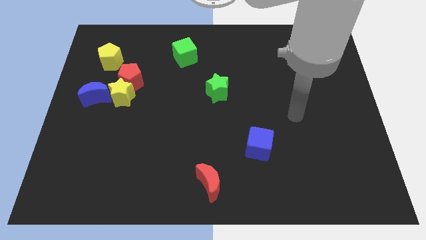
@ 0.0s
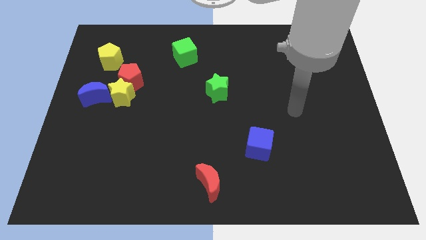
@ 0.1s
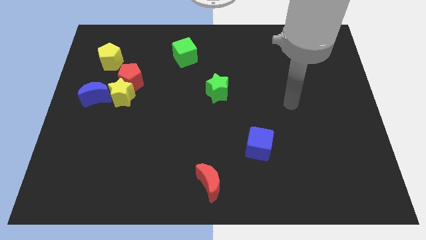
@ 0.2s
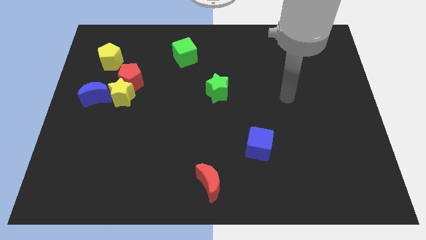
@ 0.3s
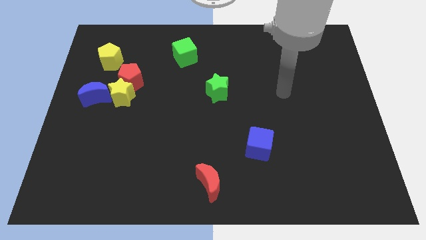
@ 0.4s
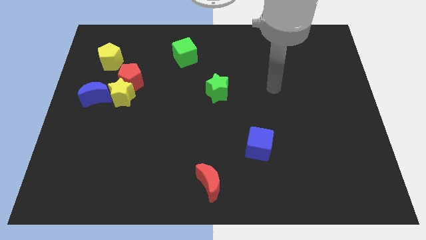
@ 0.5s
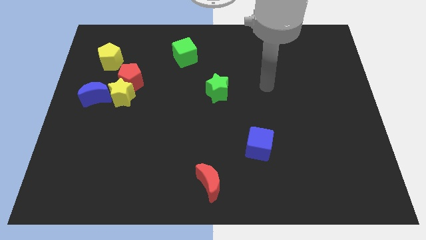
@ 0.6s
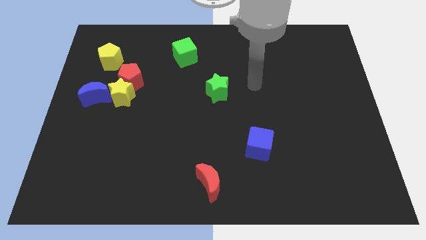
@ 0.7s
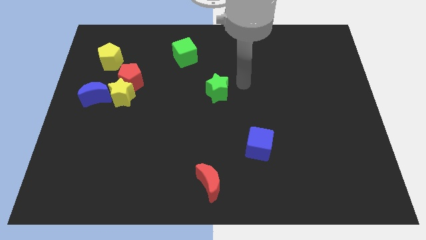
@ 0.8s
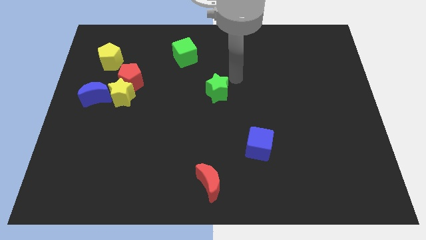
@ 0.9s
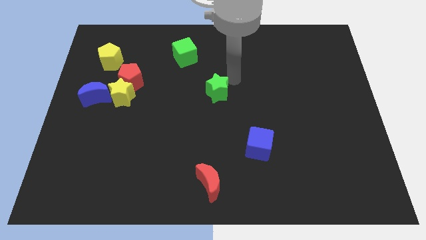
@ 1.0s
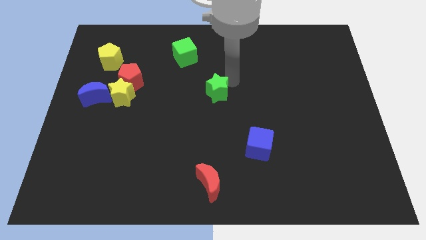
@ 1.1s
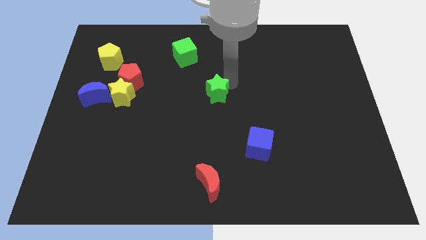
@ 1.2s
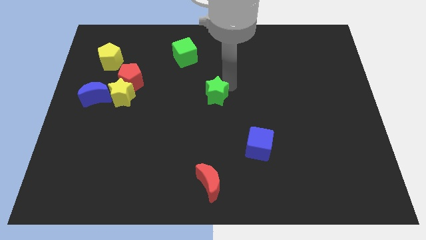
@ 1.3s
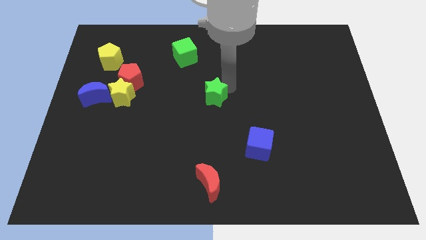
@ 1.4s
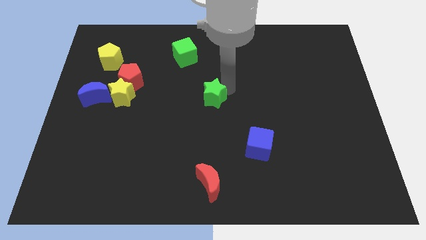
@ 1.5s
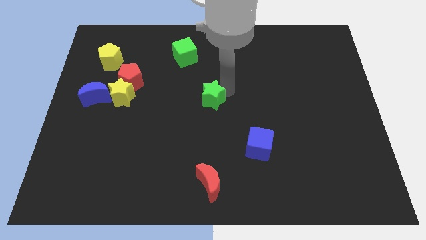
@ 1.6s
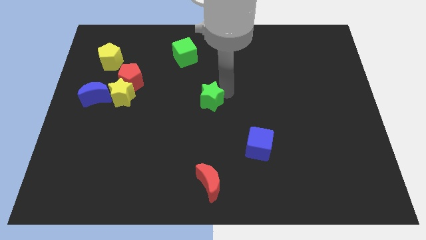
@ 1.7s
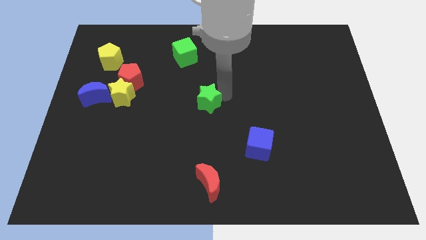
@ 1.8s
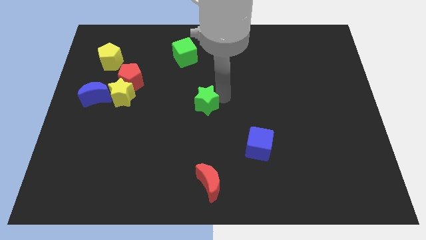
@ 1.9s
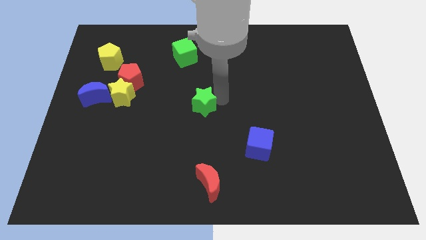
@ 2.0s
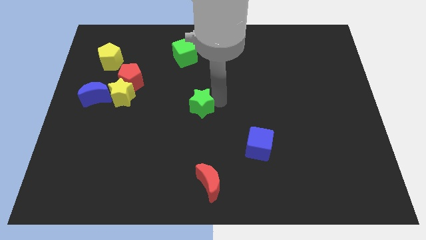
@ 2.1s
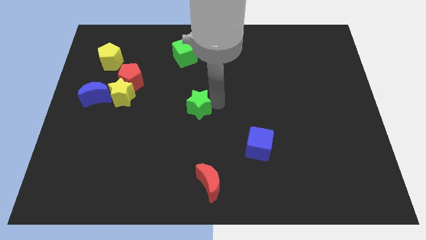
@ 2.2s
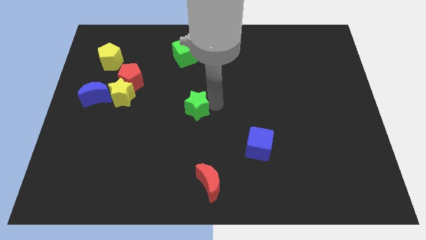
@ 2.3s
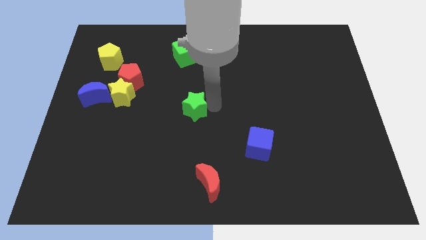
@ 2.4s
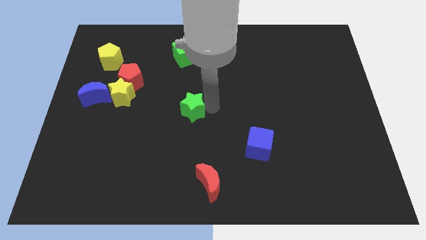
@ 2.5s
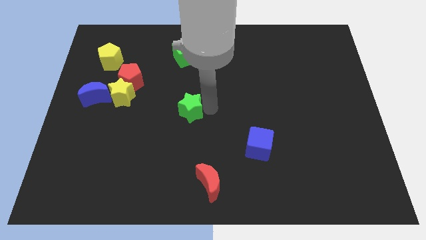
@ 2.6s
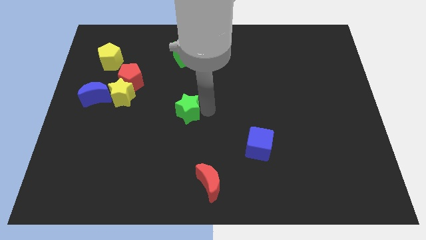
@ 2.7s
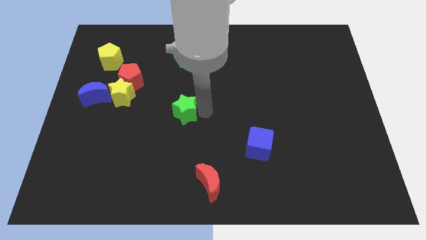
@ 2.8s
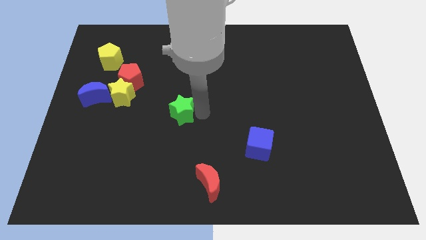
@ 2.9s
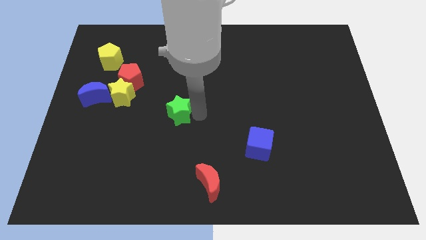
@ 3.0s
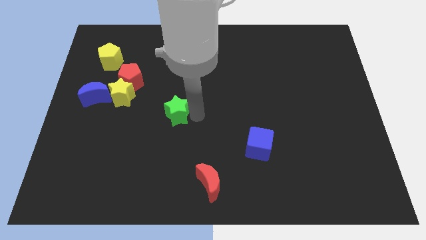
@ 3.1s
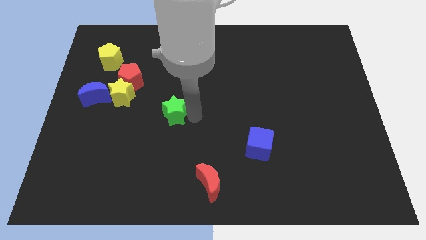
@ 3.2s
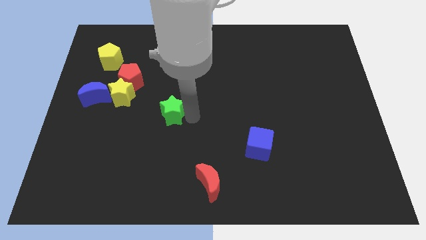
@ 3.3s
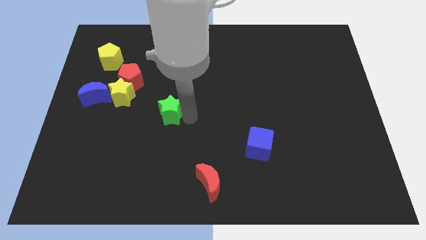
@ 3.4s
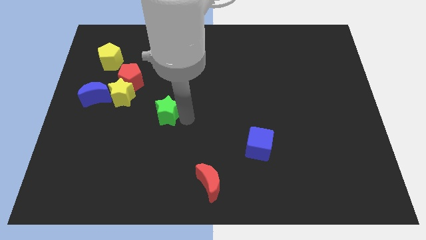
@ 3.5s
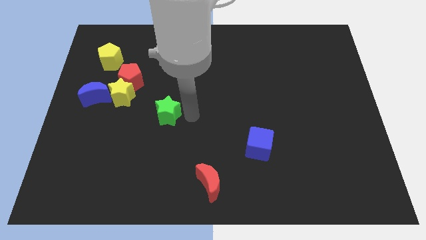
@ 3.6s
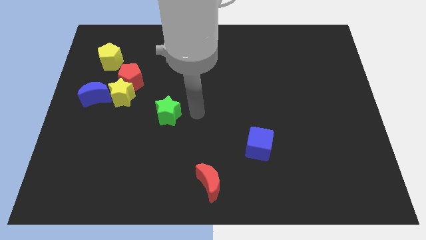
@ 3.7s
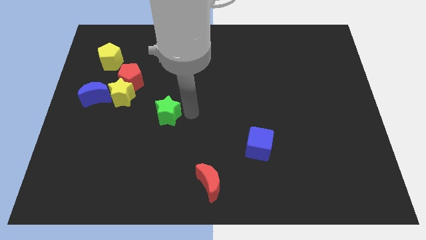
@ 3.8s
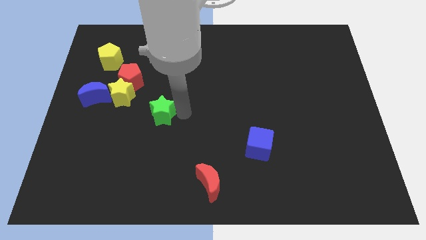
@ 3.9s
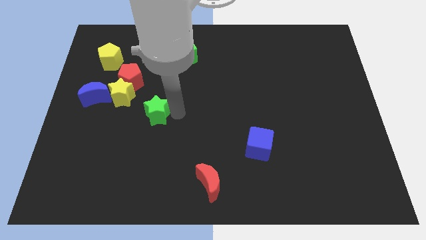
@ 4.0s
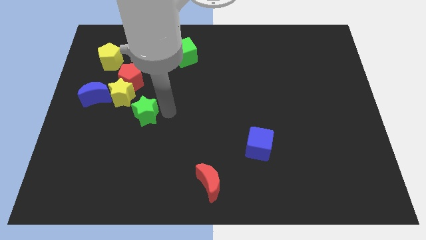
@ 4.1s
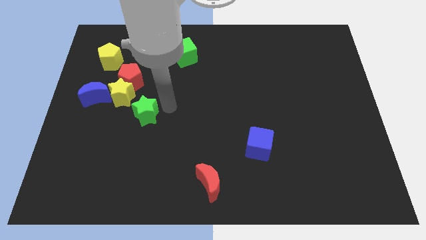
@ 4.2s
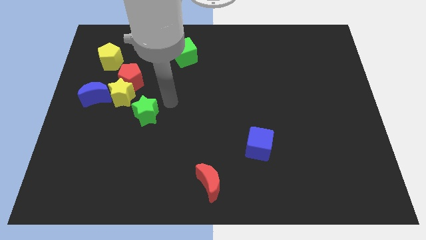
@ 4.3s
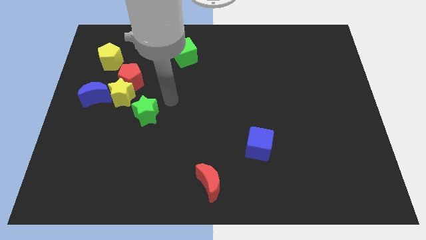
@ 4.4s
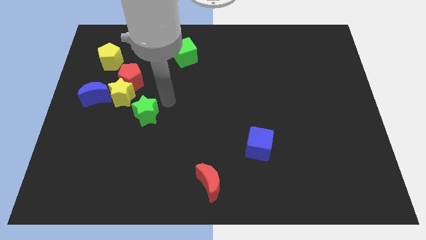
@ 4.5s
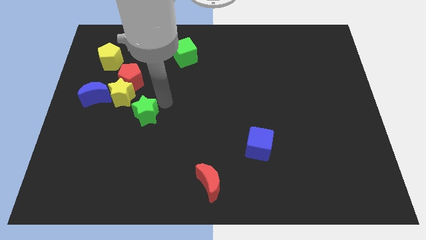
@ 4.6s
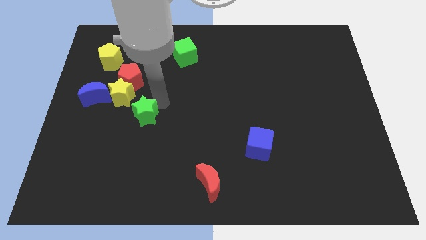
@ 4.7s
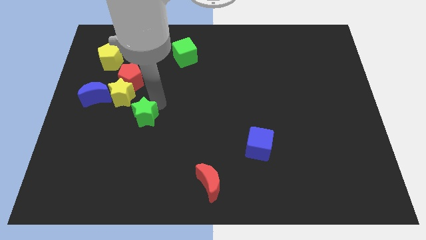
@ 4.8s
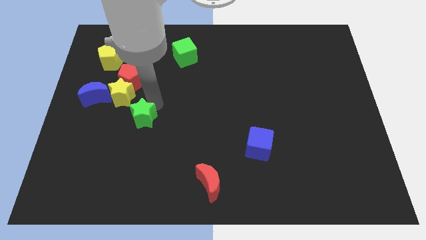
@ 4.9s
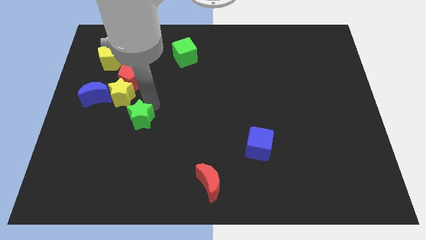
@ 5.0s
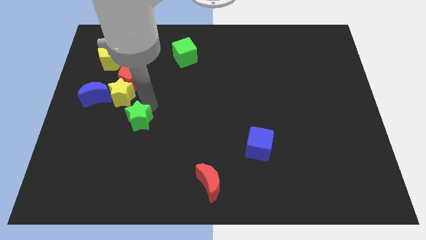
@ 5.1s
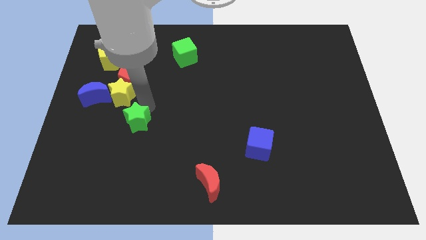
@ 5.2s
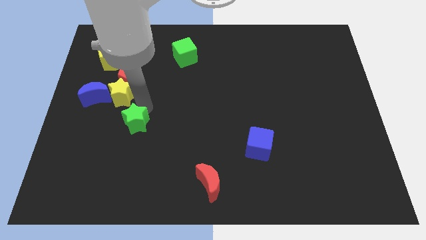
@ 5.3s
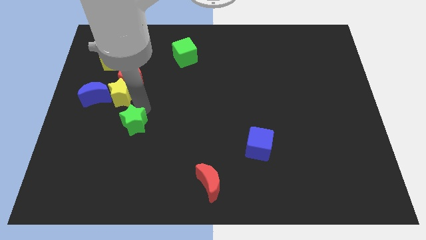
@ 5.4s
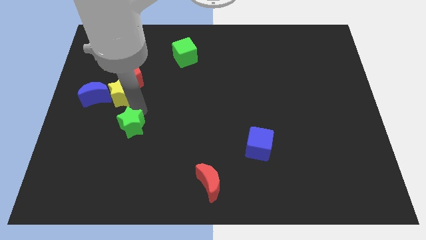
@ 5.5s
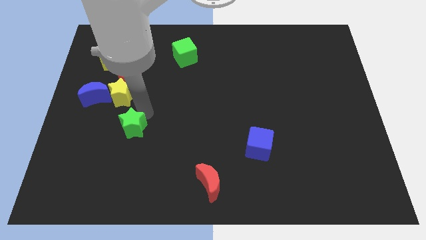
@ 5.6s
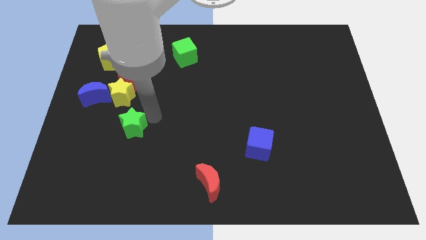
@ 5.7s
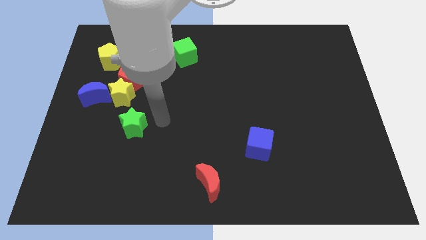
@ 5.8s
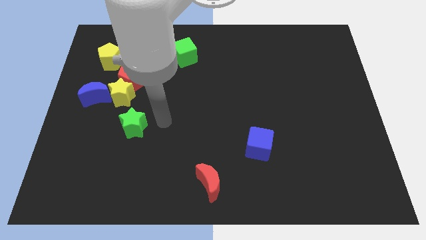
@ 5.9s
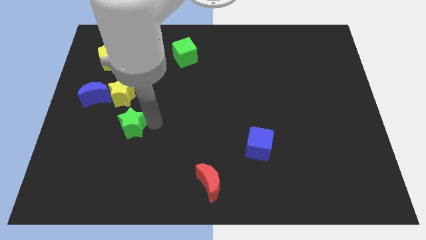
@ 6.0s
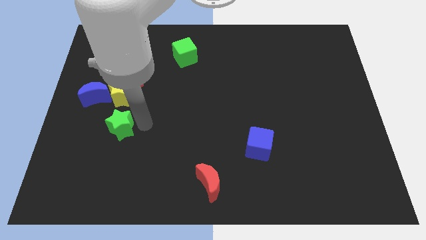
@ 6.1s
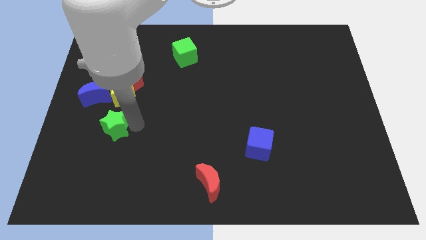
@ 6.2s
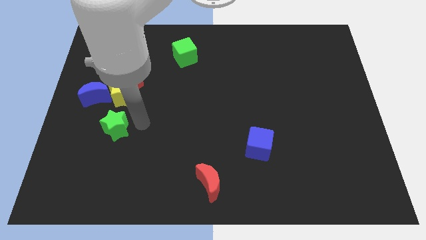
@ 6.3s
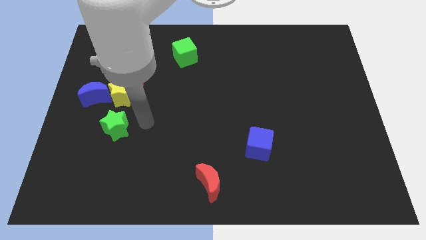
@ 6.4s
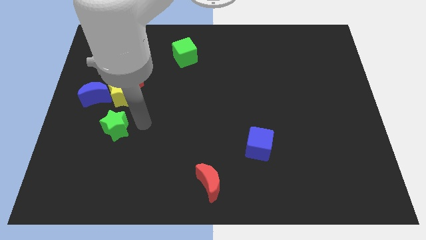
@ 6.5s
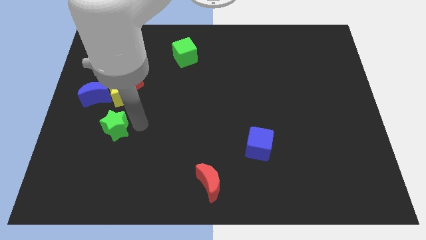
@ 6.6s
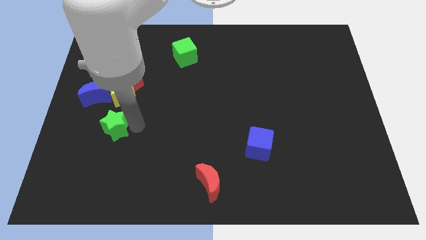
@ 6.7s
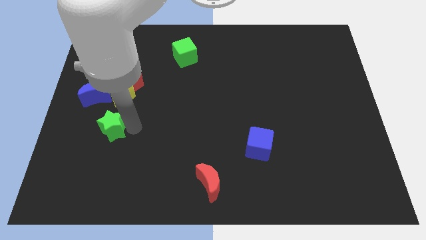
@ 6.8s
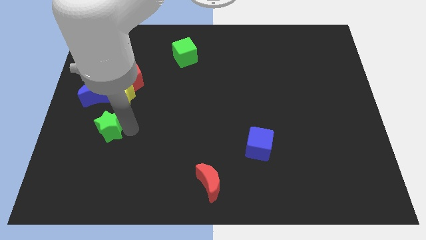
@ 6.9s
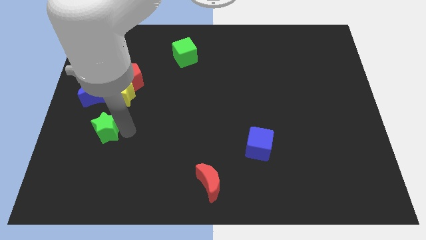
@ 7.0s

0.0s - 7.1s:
slide the green star to the bottom side of the blue moon
